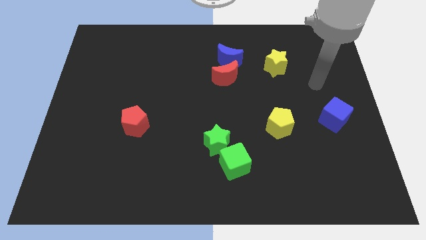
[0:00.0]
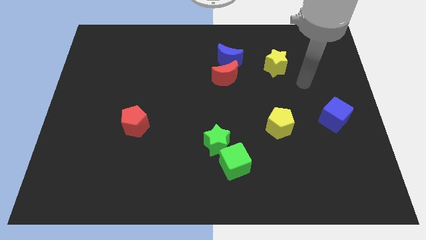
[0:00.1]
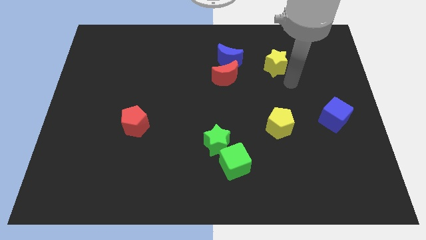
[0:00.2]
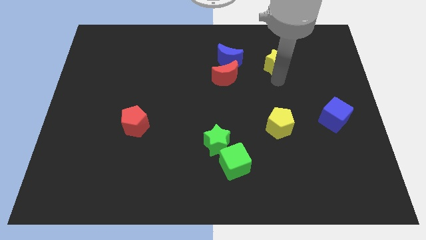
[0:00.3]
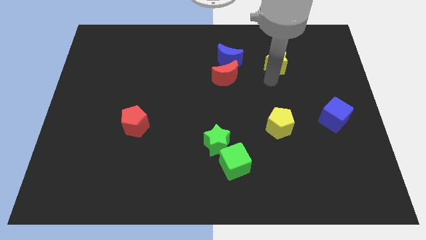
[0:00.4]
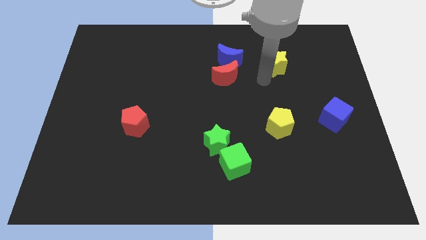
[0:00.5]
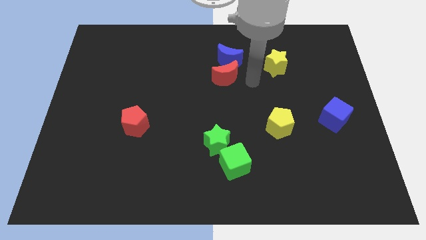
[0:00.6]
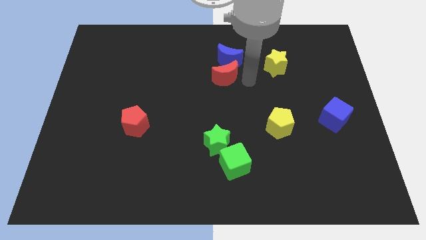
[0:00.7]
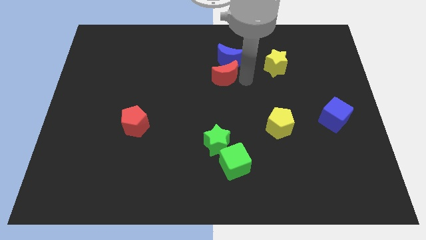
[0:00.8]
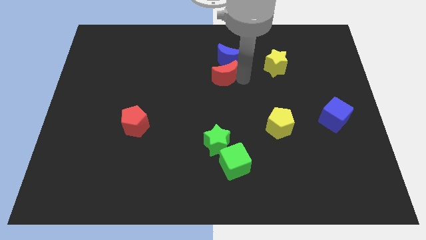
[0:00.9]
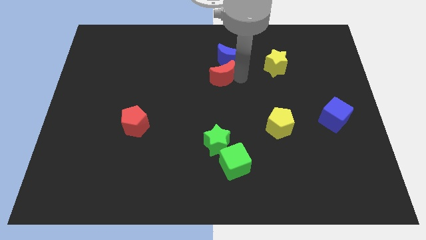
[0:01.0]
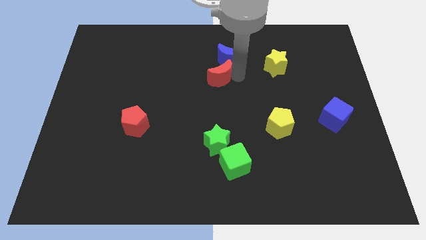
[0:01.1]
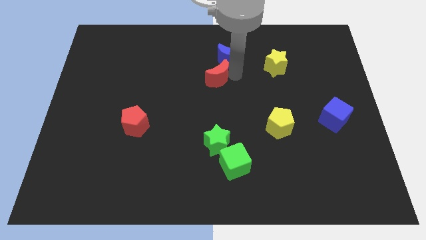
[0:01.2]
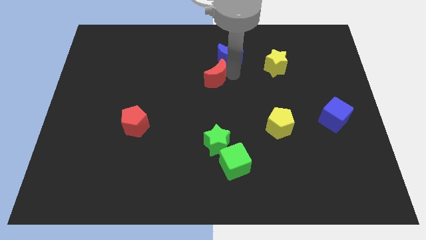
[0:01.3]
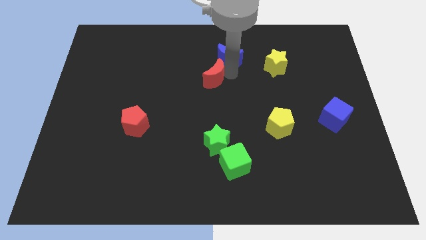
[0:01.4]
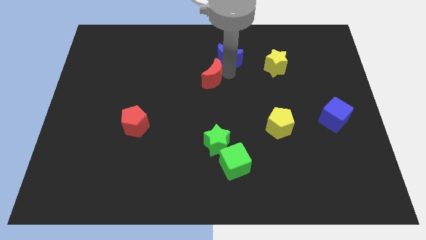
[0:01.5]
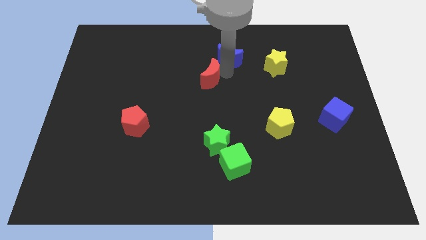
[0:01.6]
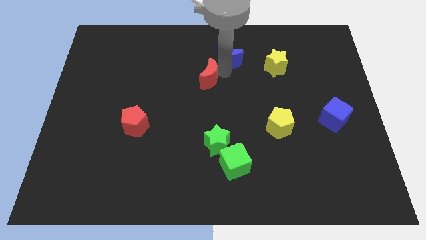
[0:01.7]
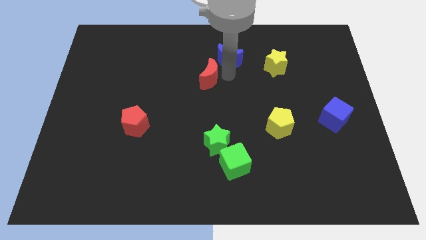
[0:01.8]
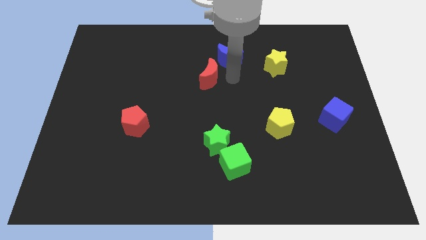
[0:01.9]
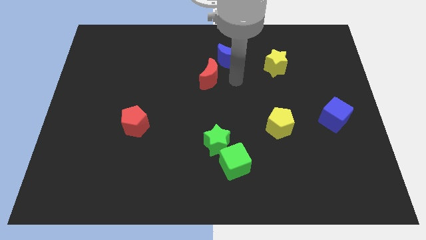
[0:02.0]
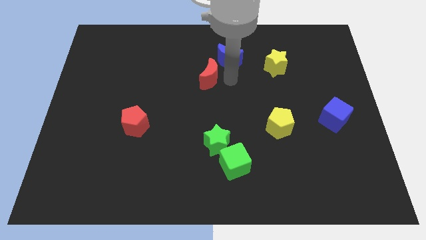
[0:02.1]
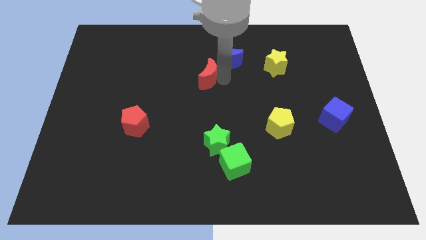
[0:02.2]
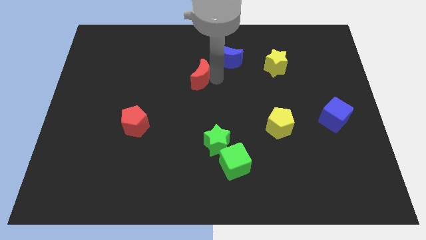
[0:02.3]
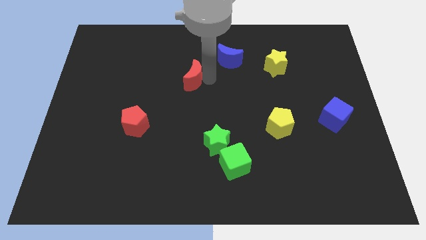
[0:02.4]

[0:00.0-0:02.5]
slightly push the red moon to the left

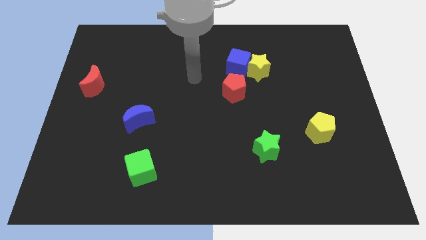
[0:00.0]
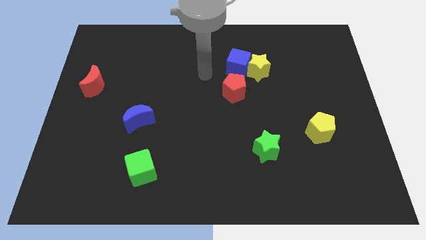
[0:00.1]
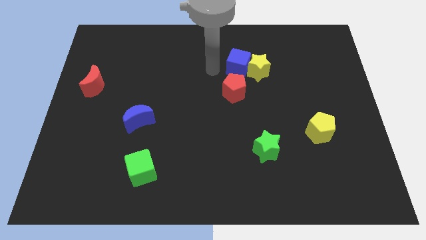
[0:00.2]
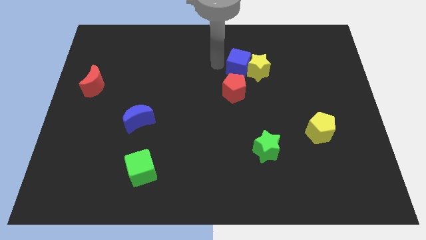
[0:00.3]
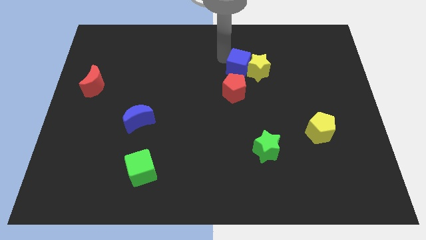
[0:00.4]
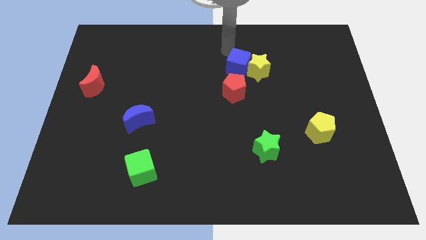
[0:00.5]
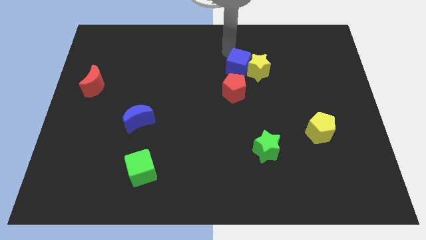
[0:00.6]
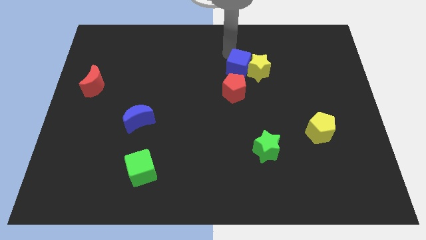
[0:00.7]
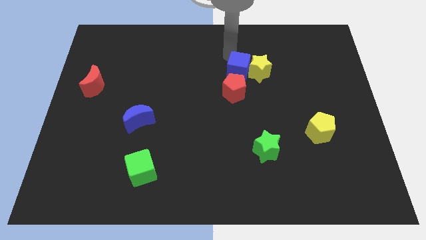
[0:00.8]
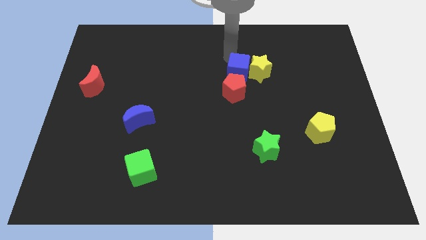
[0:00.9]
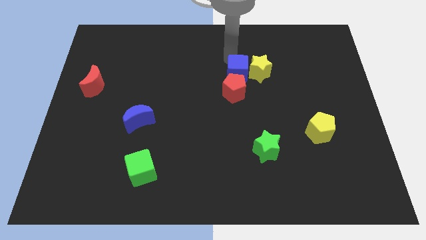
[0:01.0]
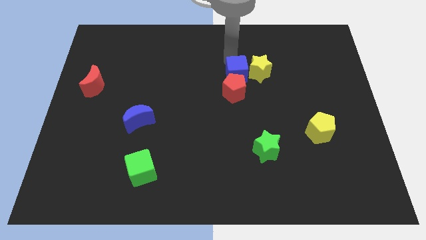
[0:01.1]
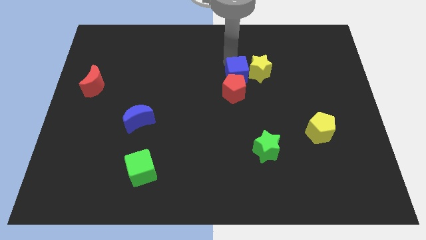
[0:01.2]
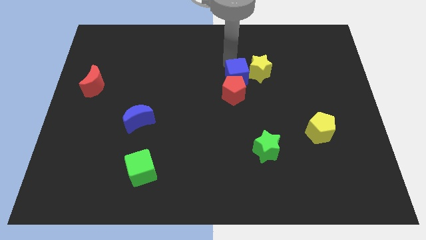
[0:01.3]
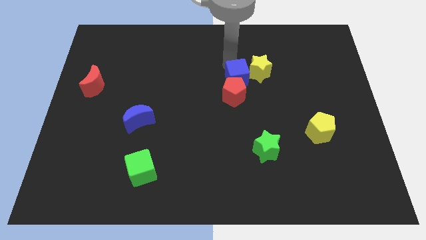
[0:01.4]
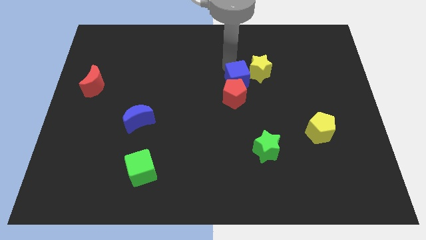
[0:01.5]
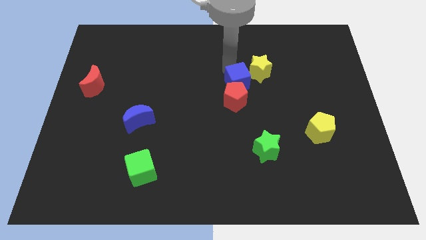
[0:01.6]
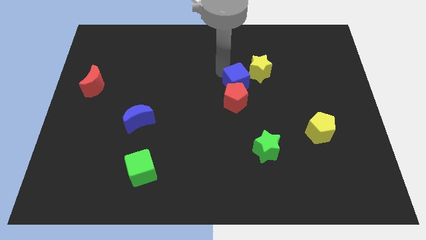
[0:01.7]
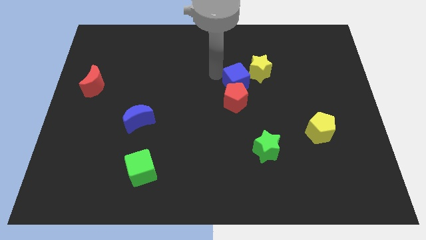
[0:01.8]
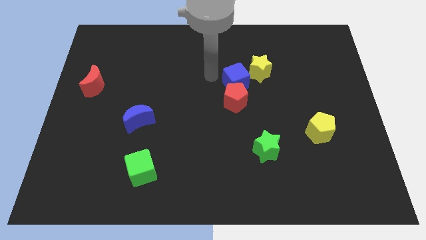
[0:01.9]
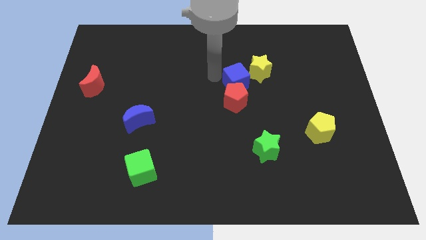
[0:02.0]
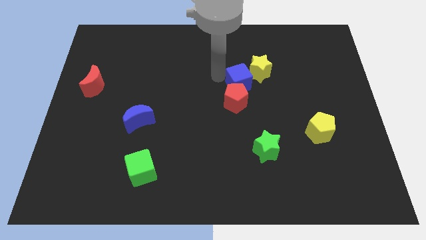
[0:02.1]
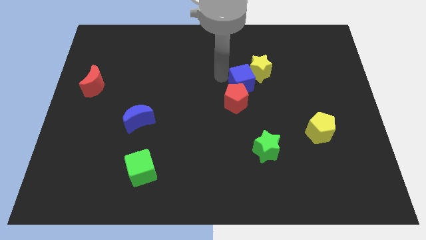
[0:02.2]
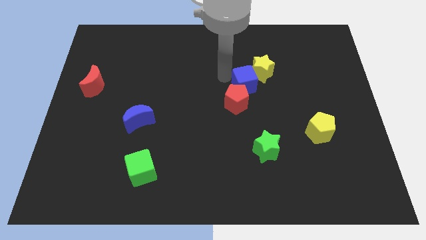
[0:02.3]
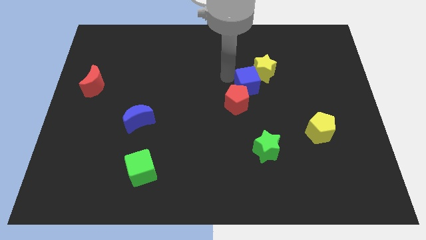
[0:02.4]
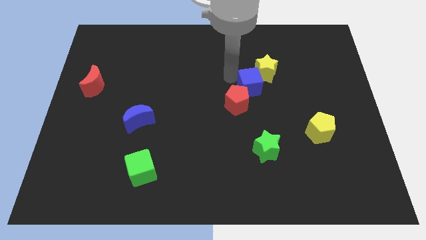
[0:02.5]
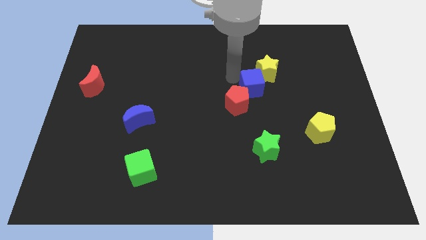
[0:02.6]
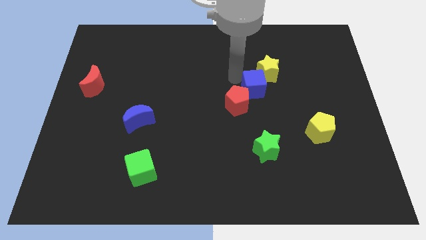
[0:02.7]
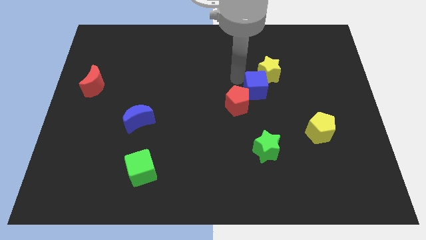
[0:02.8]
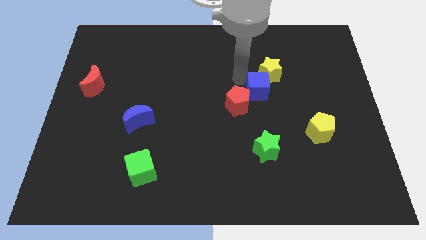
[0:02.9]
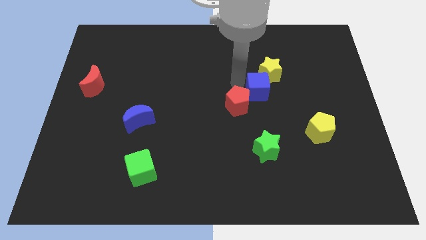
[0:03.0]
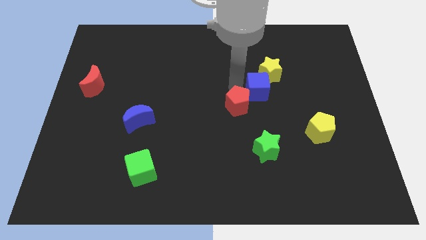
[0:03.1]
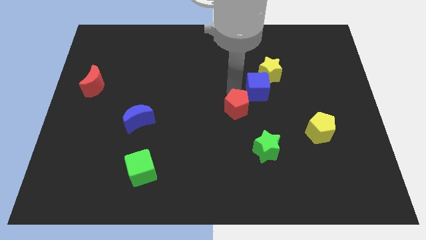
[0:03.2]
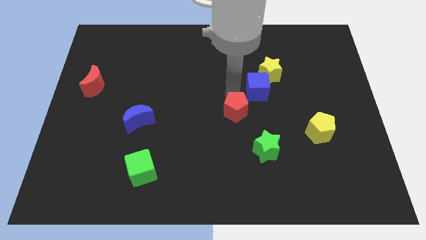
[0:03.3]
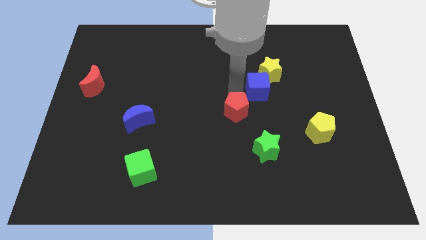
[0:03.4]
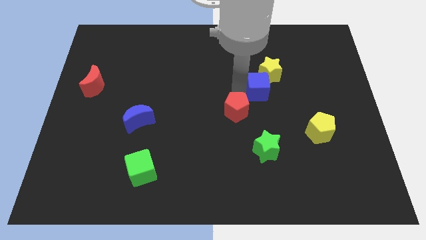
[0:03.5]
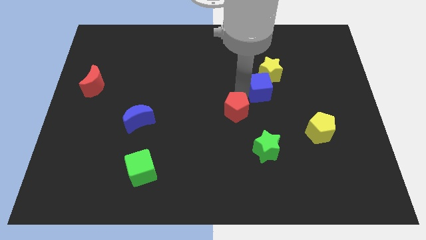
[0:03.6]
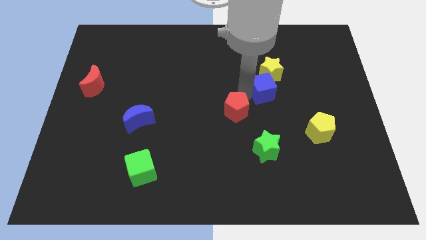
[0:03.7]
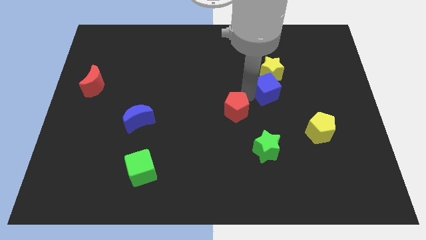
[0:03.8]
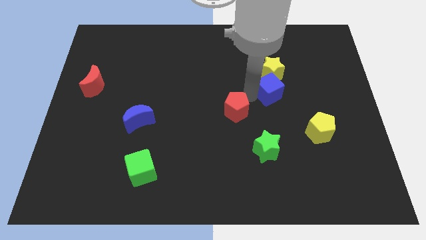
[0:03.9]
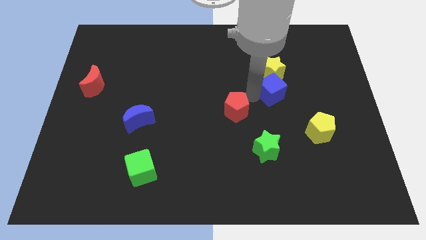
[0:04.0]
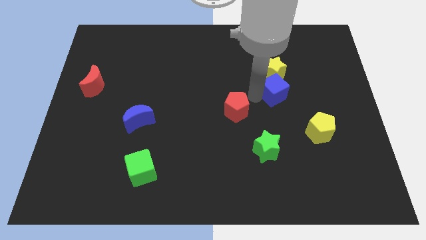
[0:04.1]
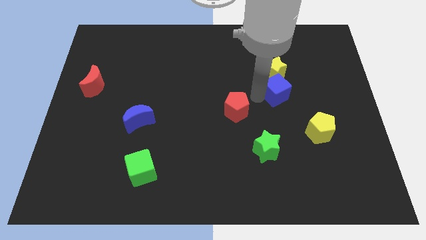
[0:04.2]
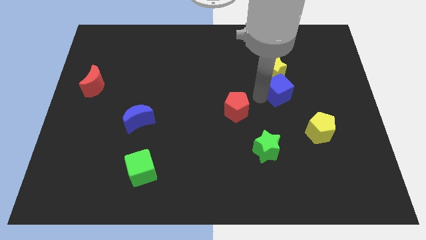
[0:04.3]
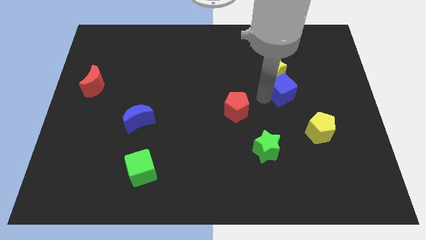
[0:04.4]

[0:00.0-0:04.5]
slide the blue cube a bit right

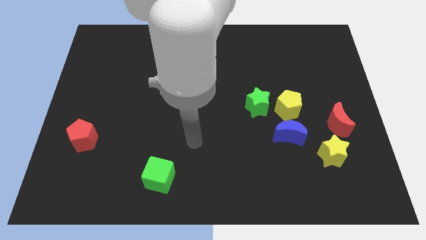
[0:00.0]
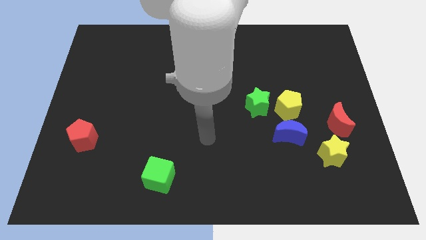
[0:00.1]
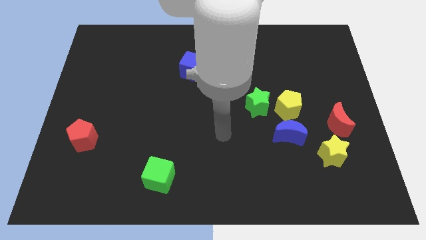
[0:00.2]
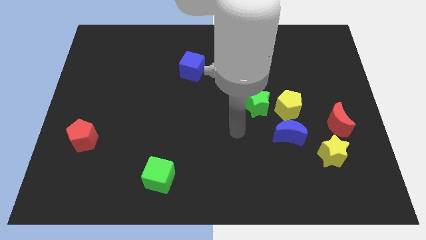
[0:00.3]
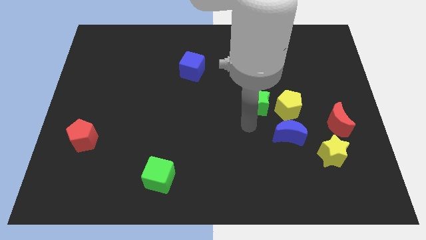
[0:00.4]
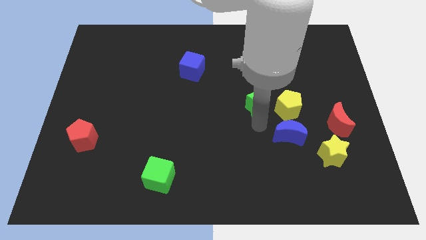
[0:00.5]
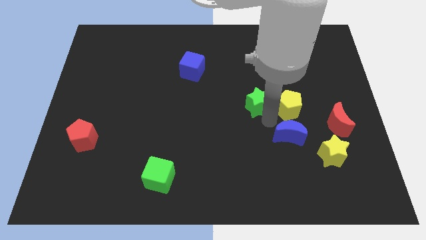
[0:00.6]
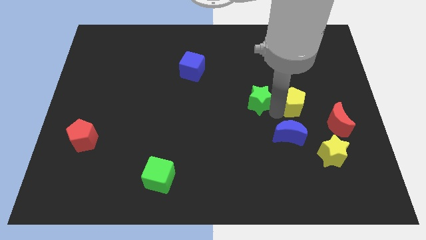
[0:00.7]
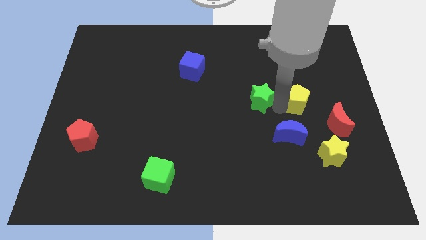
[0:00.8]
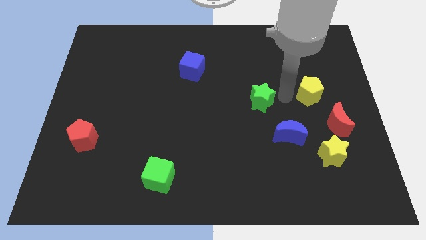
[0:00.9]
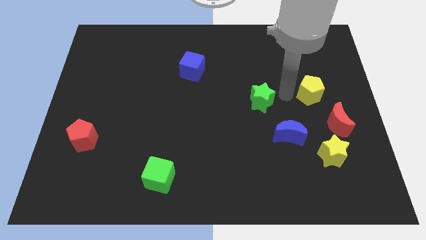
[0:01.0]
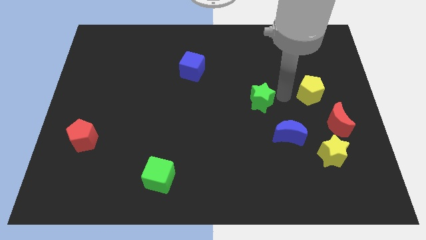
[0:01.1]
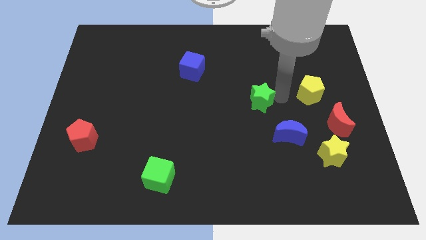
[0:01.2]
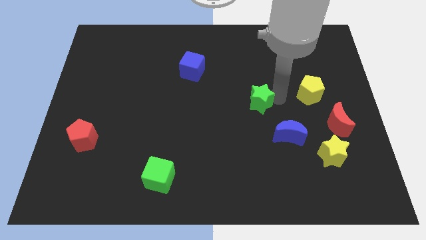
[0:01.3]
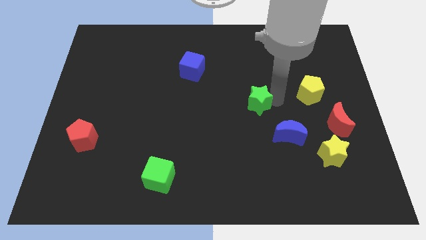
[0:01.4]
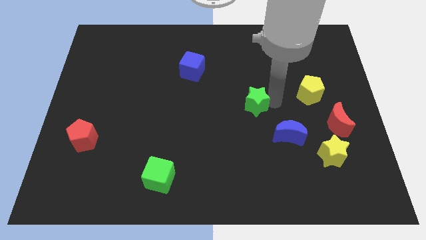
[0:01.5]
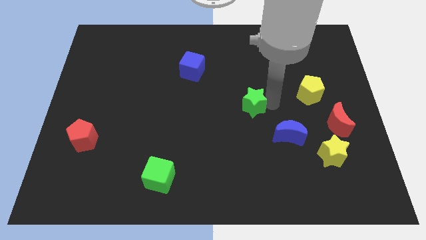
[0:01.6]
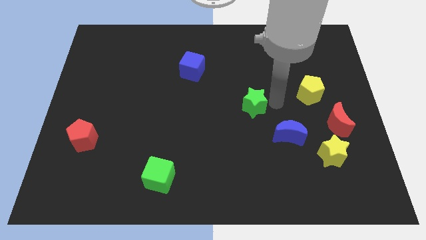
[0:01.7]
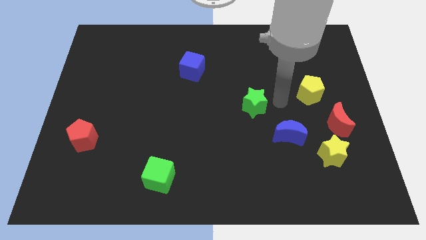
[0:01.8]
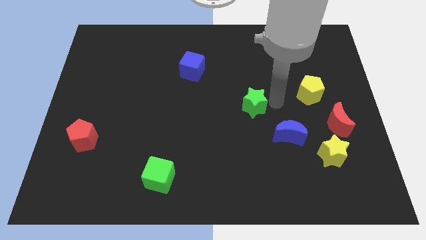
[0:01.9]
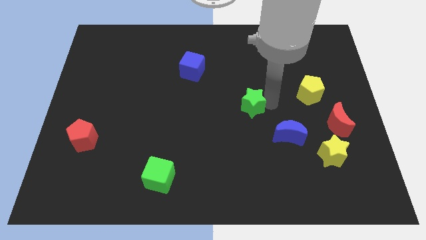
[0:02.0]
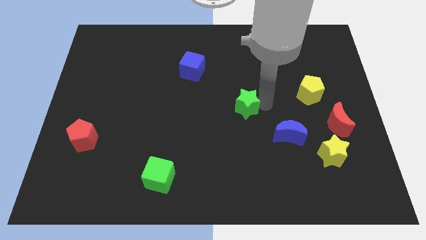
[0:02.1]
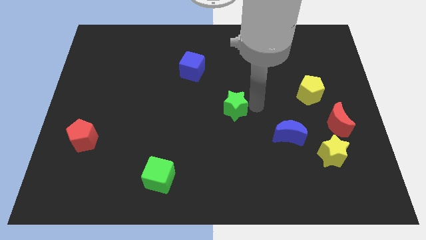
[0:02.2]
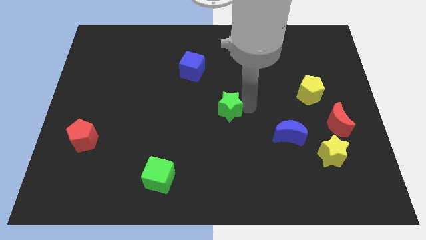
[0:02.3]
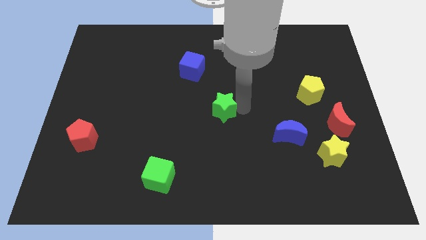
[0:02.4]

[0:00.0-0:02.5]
push the green star a bit left
